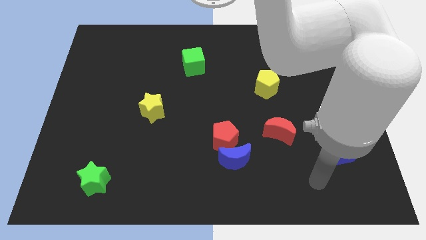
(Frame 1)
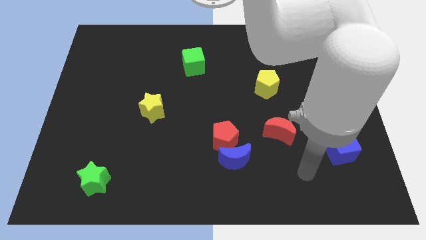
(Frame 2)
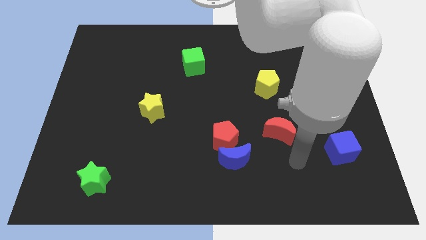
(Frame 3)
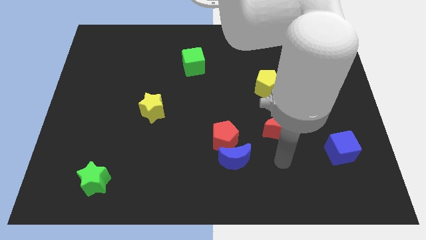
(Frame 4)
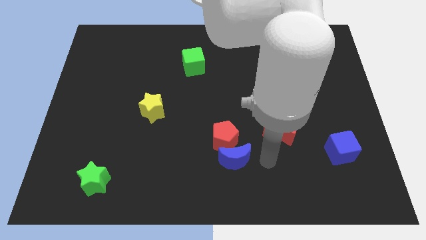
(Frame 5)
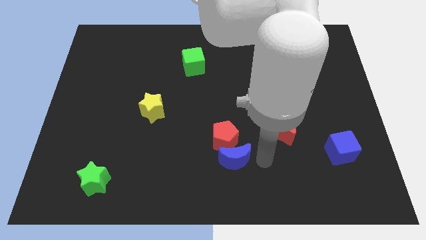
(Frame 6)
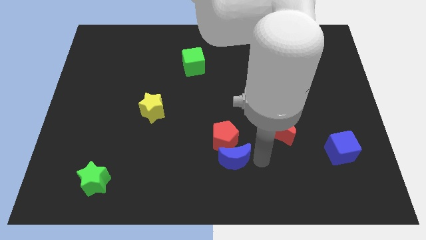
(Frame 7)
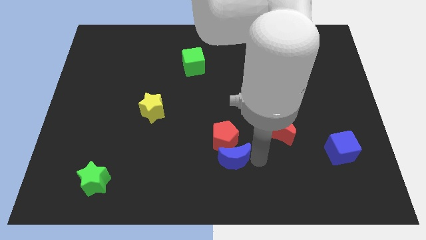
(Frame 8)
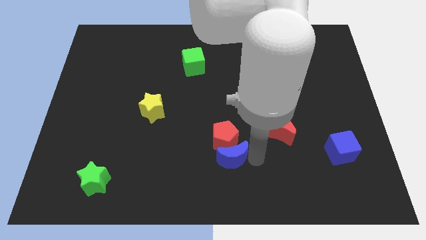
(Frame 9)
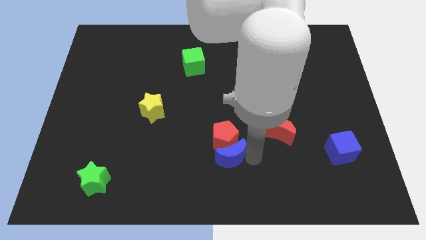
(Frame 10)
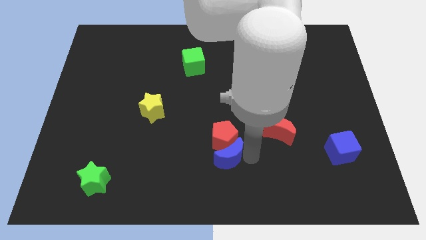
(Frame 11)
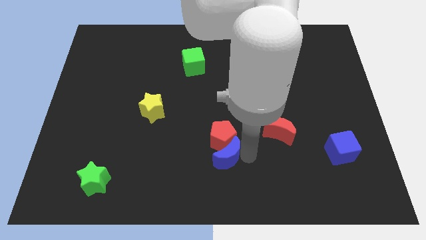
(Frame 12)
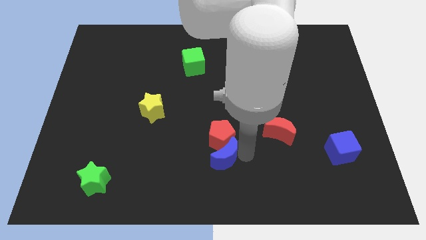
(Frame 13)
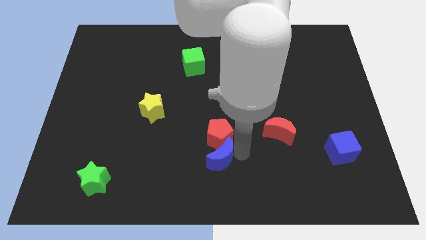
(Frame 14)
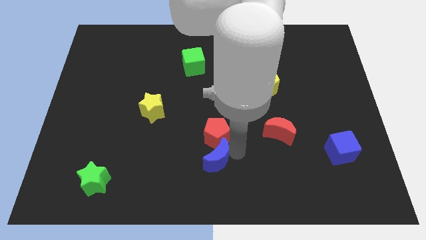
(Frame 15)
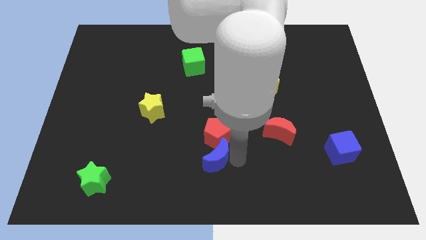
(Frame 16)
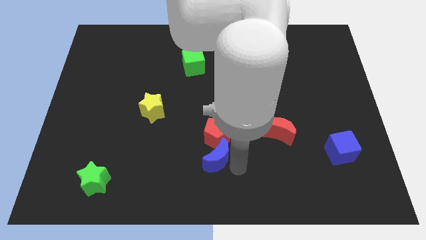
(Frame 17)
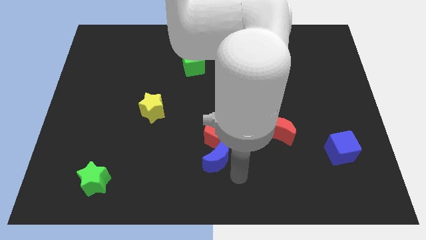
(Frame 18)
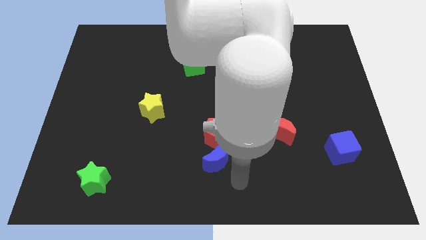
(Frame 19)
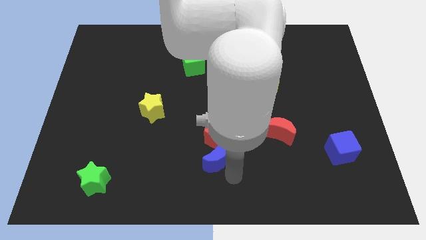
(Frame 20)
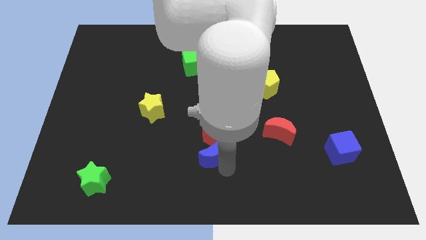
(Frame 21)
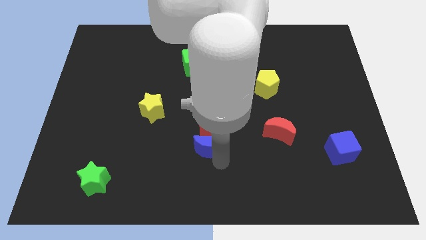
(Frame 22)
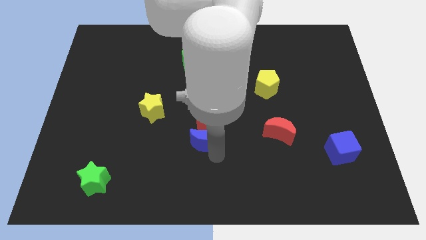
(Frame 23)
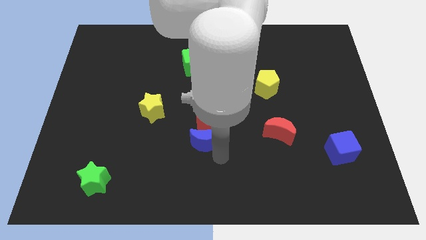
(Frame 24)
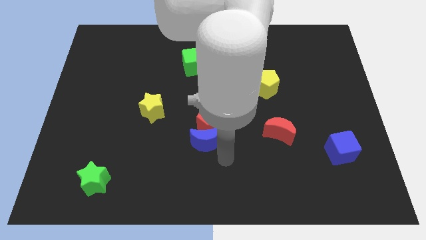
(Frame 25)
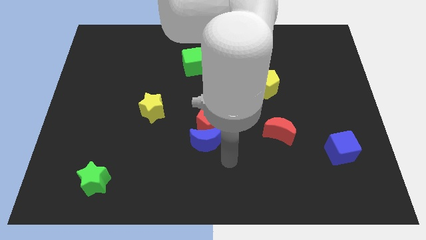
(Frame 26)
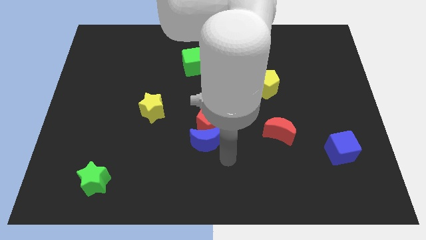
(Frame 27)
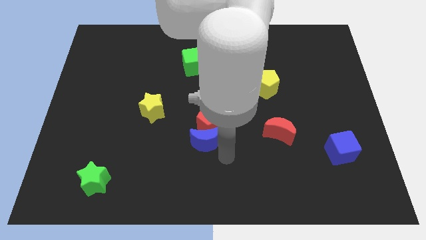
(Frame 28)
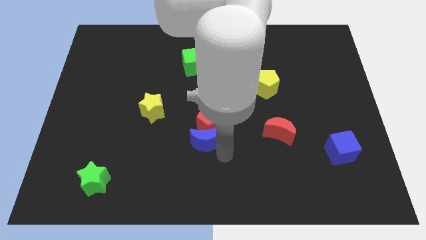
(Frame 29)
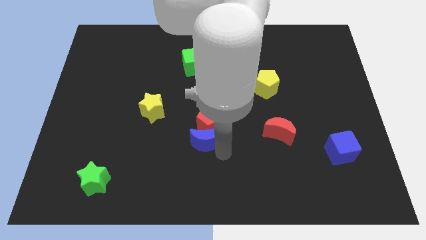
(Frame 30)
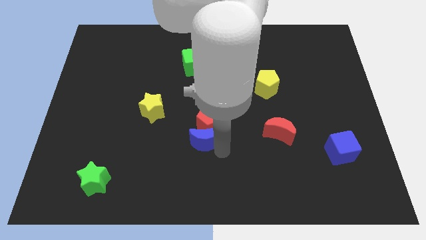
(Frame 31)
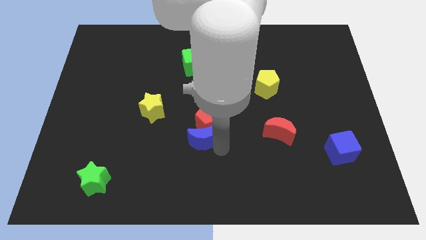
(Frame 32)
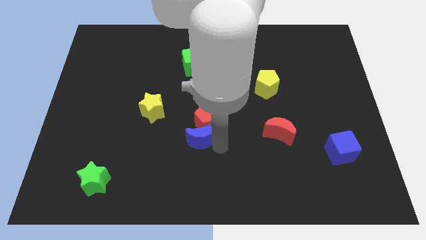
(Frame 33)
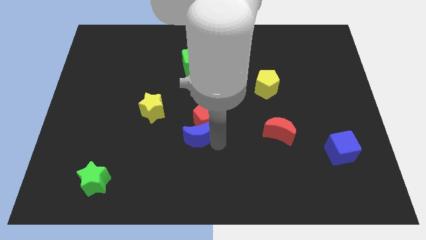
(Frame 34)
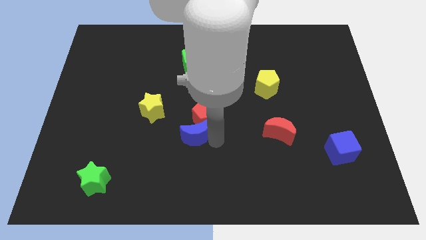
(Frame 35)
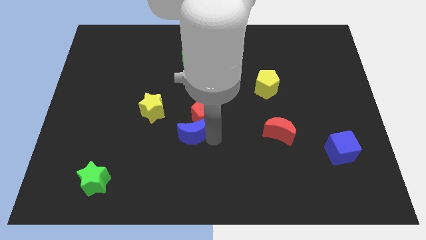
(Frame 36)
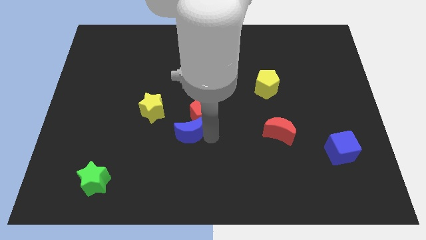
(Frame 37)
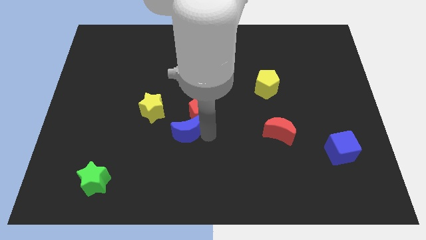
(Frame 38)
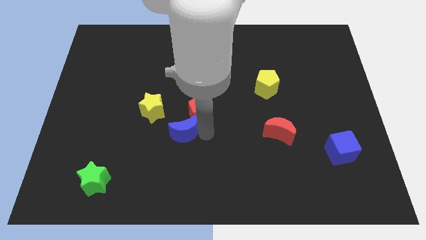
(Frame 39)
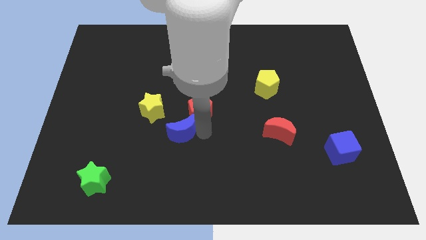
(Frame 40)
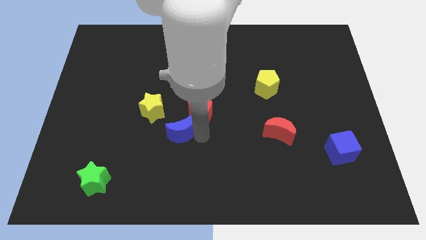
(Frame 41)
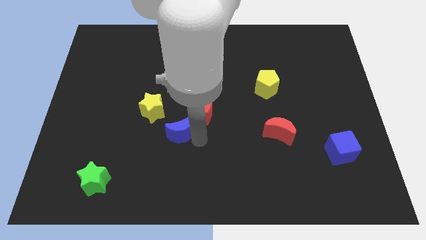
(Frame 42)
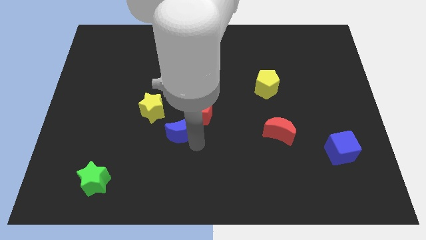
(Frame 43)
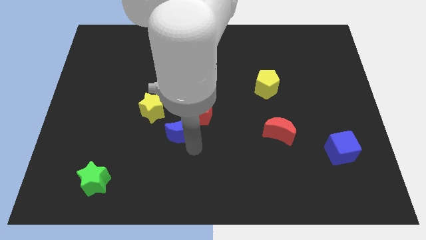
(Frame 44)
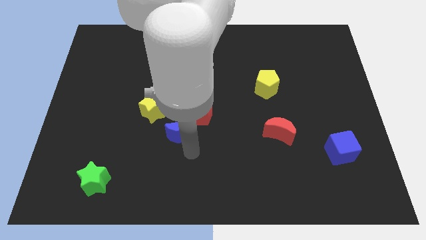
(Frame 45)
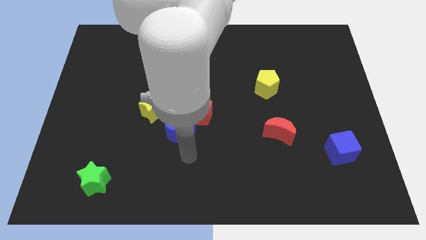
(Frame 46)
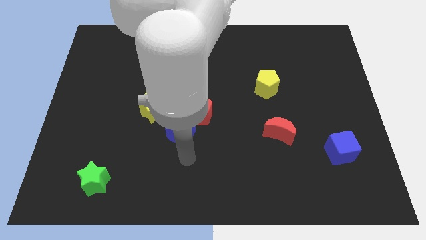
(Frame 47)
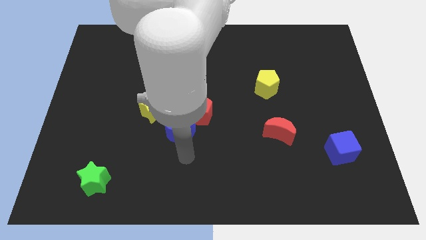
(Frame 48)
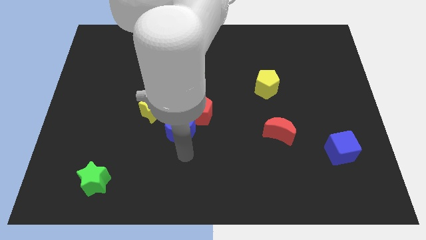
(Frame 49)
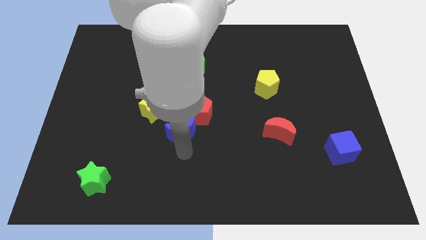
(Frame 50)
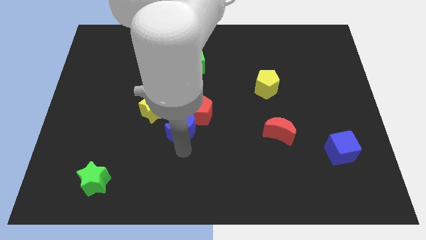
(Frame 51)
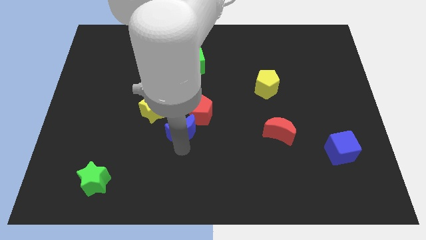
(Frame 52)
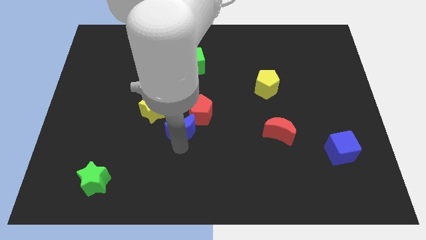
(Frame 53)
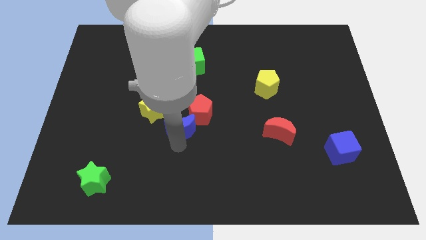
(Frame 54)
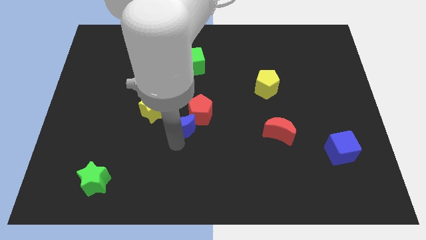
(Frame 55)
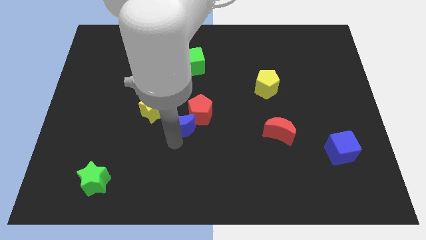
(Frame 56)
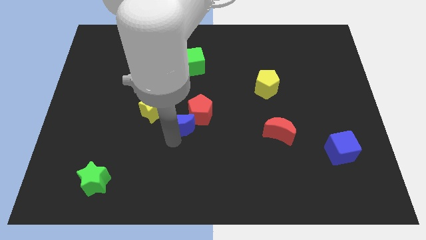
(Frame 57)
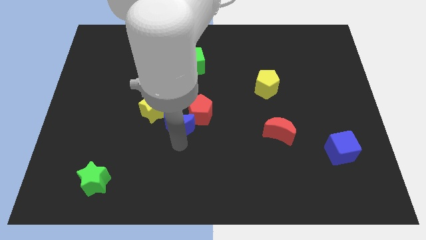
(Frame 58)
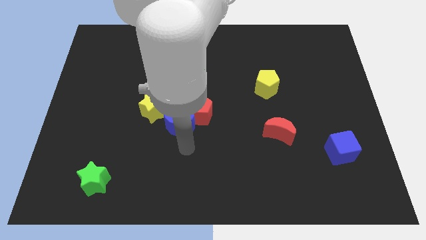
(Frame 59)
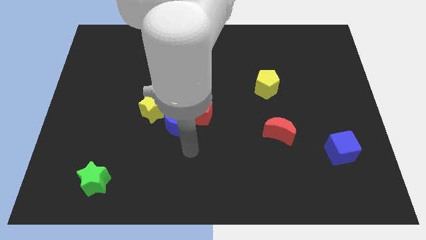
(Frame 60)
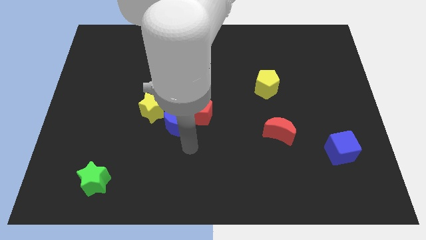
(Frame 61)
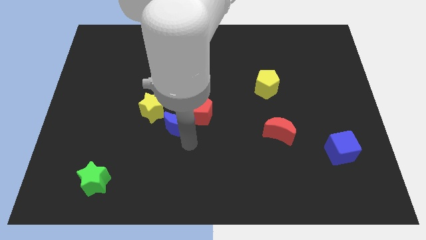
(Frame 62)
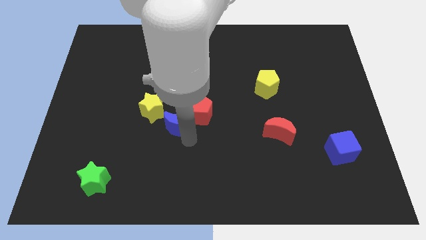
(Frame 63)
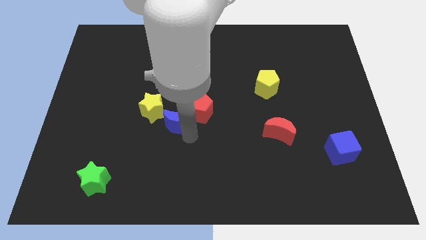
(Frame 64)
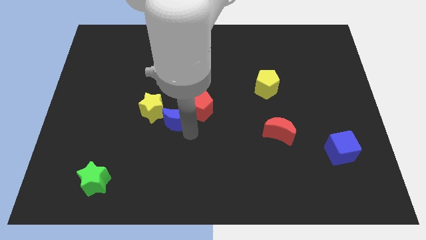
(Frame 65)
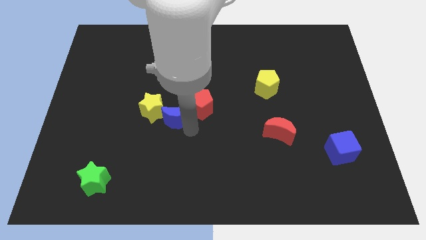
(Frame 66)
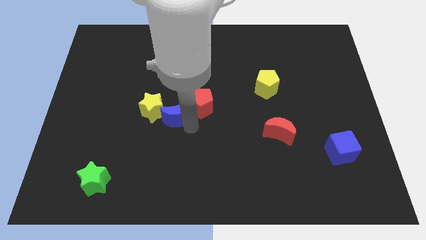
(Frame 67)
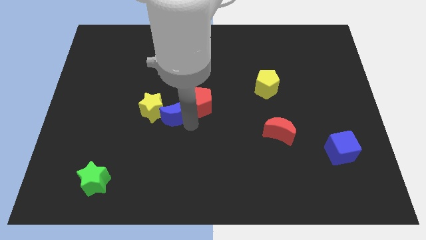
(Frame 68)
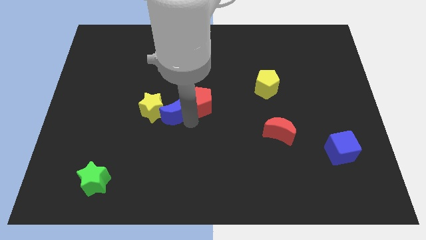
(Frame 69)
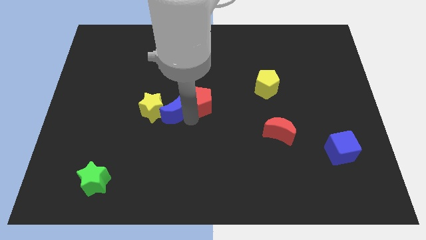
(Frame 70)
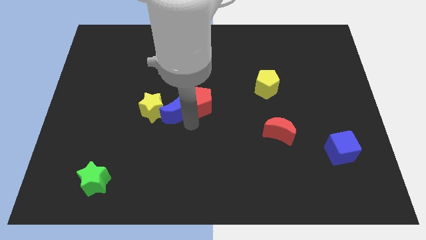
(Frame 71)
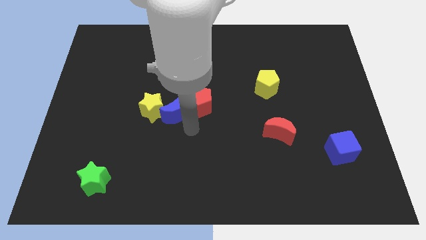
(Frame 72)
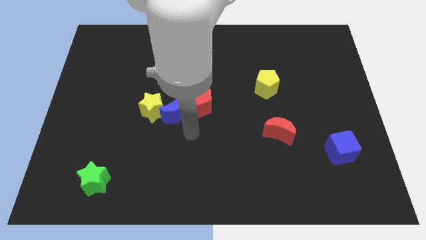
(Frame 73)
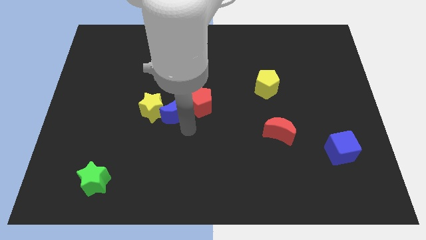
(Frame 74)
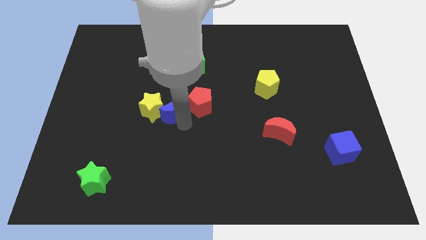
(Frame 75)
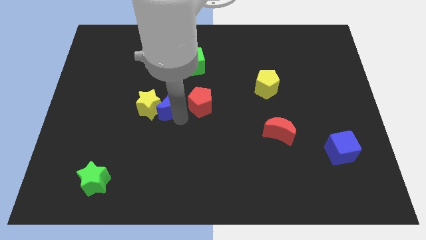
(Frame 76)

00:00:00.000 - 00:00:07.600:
move the blue moon up and to the left

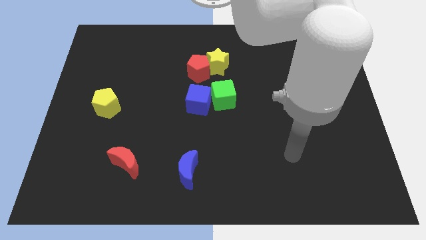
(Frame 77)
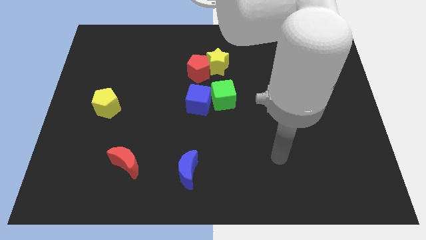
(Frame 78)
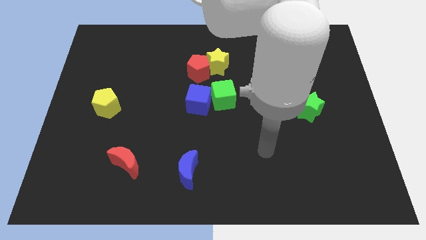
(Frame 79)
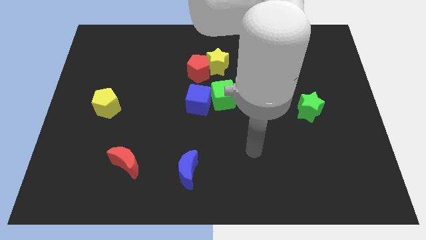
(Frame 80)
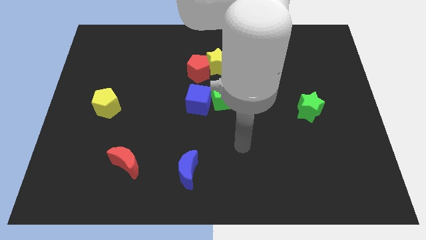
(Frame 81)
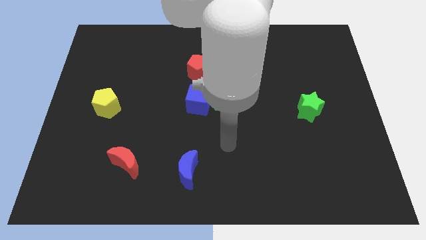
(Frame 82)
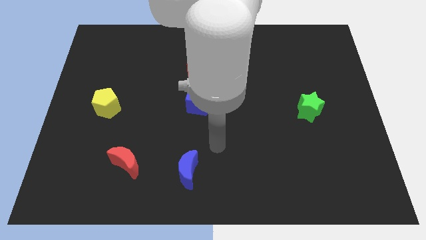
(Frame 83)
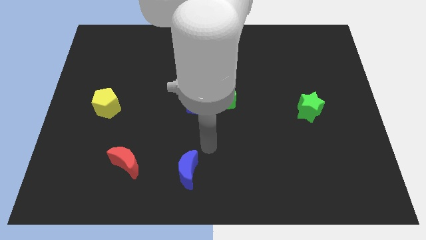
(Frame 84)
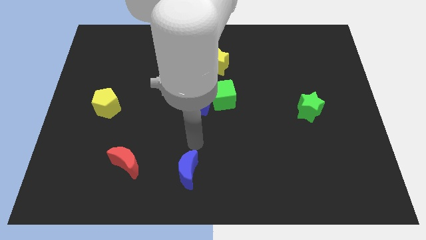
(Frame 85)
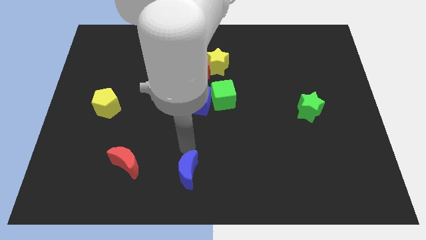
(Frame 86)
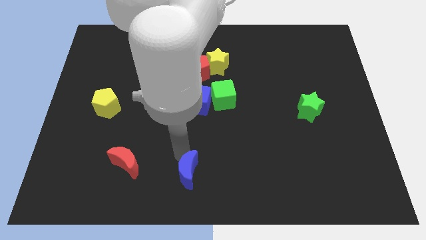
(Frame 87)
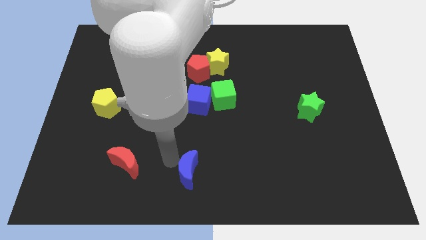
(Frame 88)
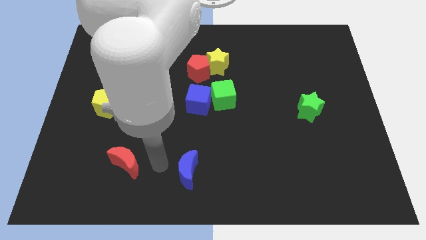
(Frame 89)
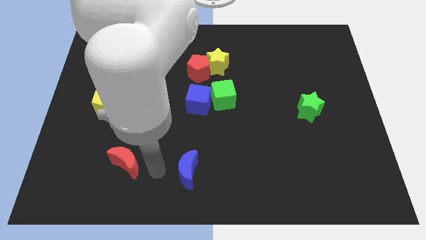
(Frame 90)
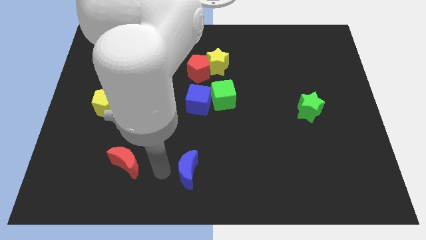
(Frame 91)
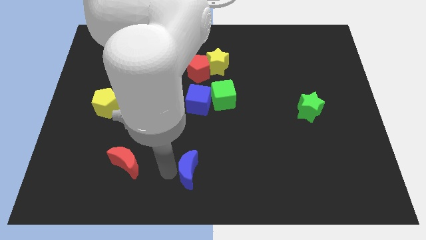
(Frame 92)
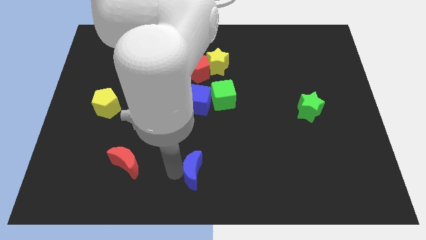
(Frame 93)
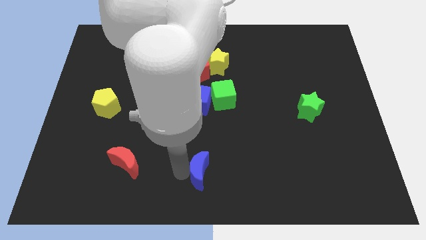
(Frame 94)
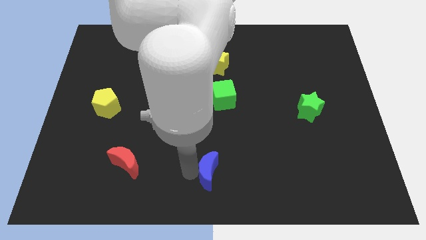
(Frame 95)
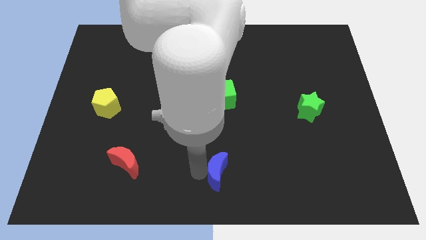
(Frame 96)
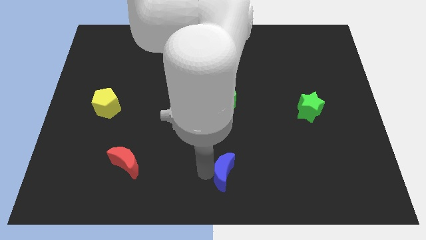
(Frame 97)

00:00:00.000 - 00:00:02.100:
slightly move the blue moon right
